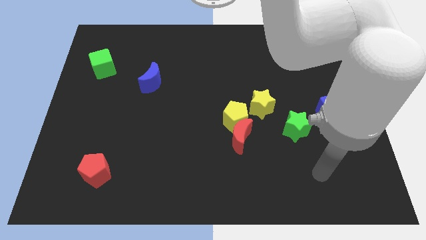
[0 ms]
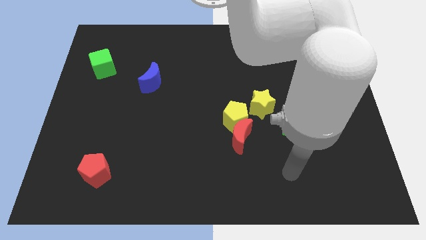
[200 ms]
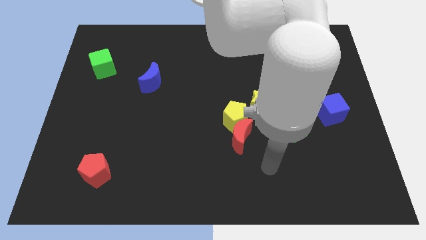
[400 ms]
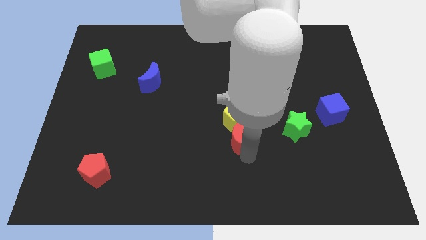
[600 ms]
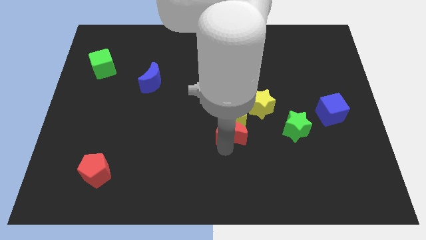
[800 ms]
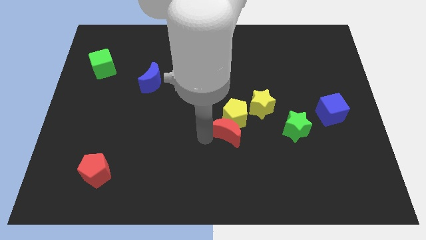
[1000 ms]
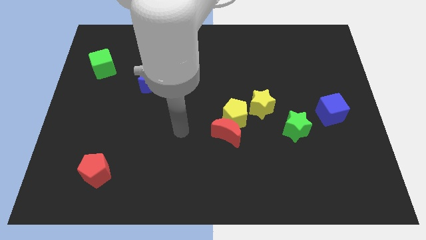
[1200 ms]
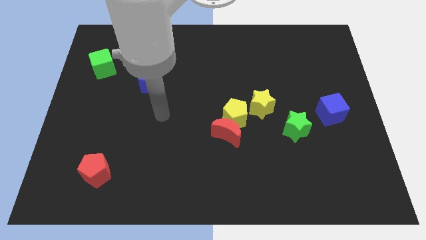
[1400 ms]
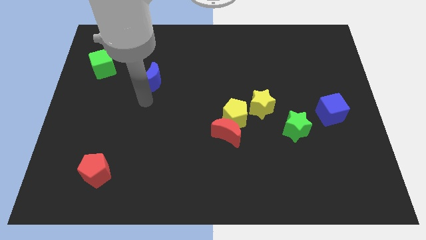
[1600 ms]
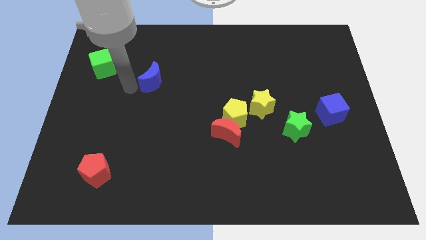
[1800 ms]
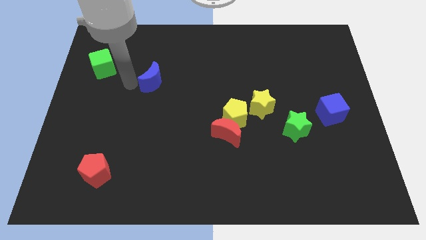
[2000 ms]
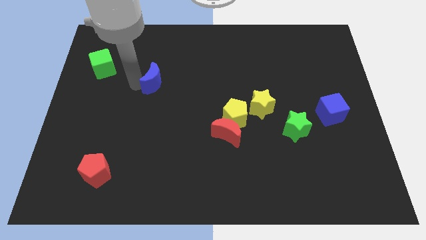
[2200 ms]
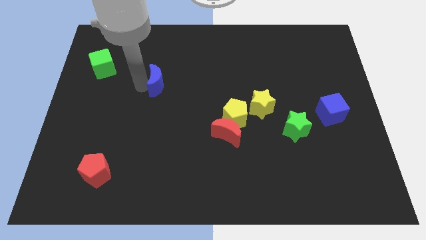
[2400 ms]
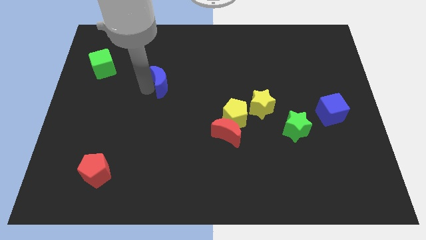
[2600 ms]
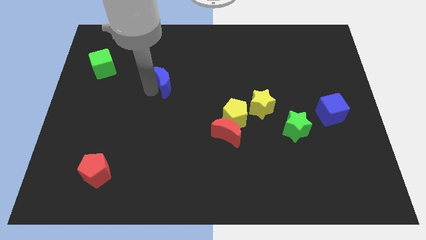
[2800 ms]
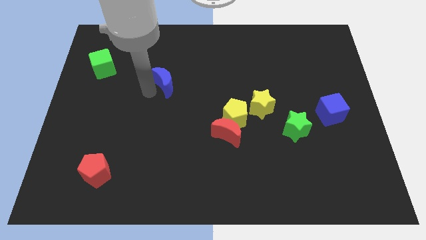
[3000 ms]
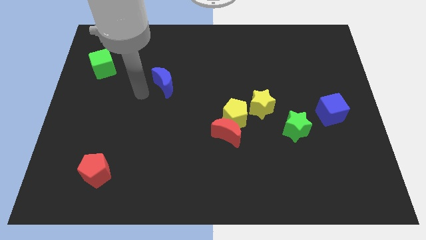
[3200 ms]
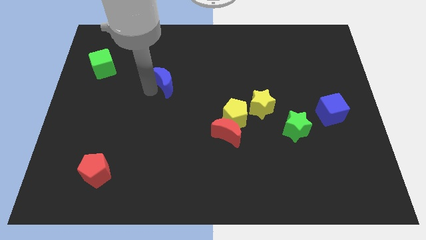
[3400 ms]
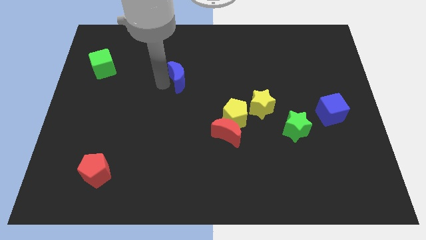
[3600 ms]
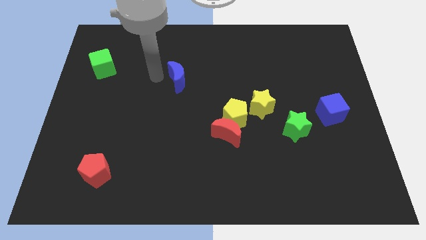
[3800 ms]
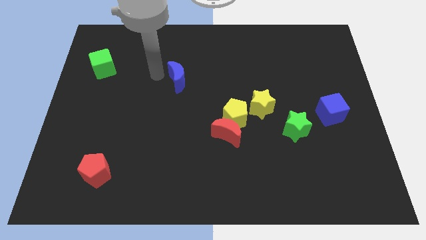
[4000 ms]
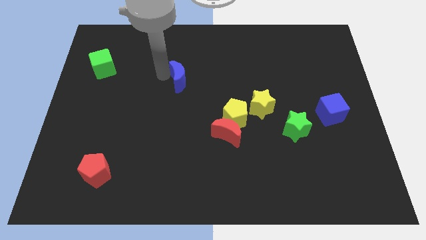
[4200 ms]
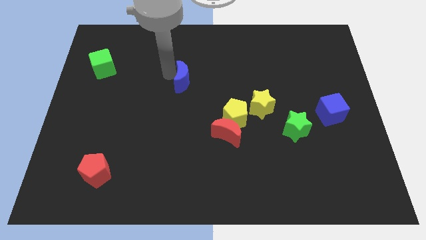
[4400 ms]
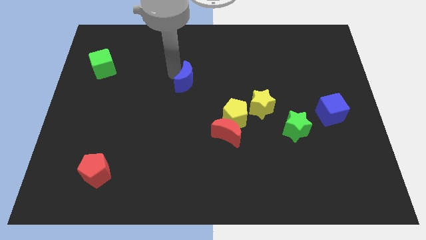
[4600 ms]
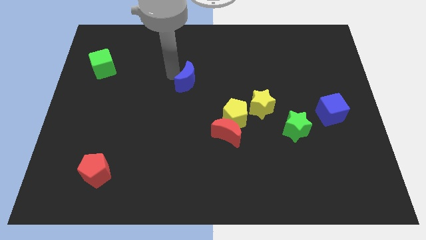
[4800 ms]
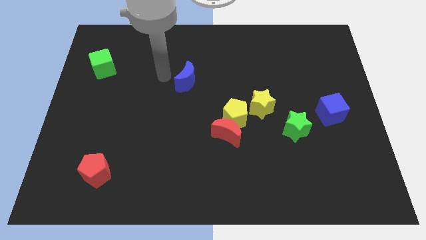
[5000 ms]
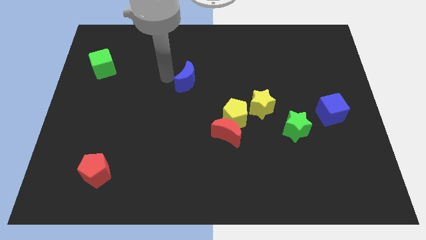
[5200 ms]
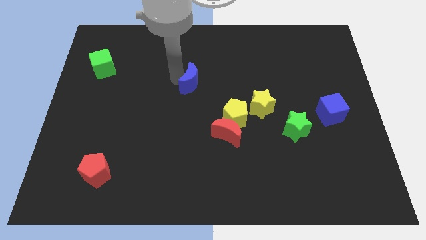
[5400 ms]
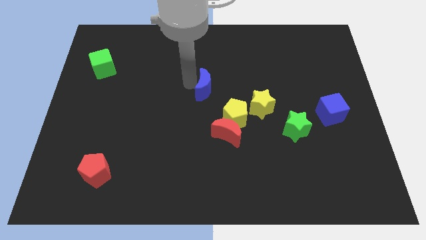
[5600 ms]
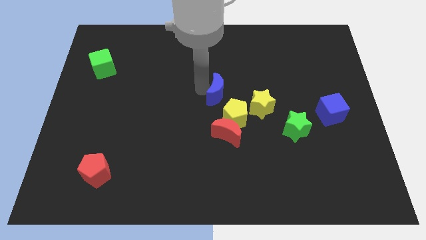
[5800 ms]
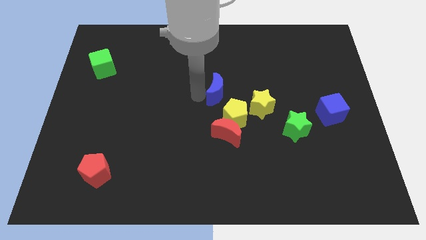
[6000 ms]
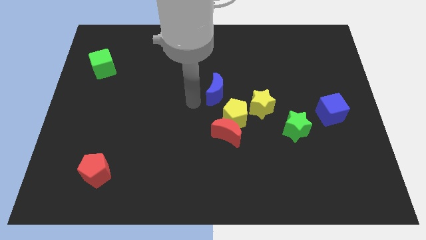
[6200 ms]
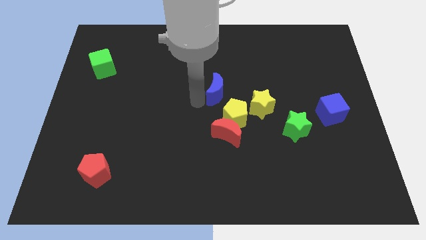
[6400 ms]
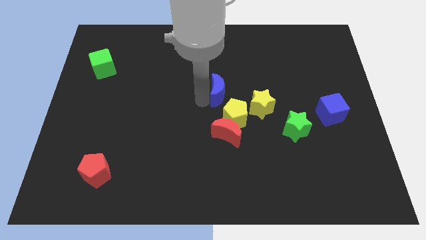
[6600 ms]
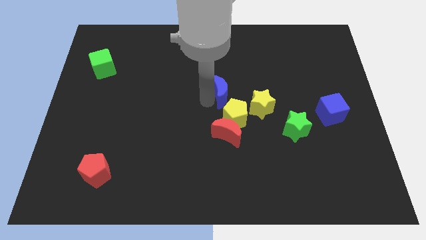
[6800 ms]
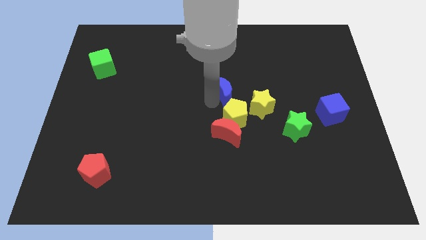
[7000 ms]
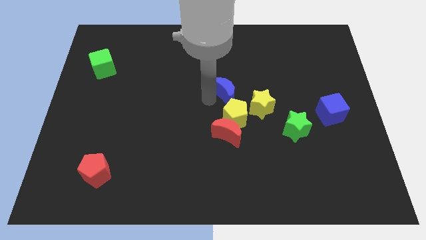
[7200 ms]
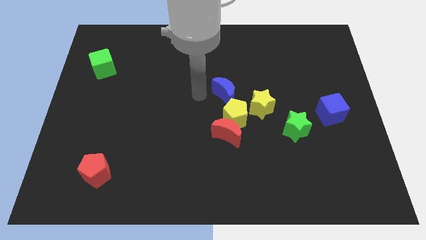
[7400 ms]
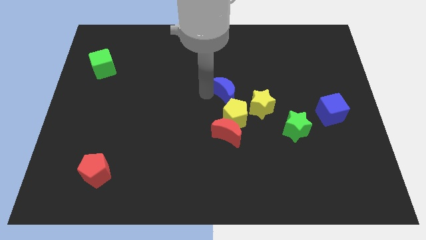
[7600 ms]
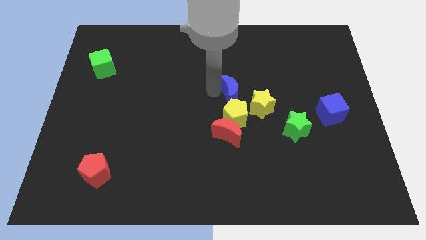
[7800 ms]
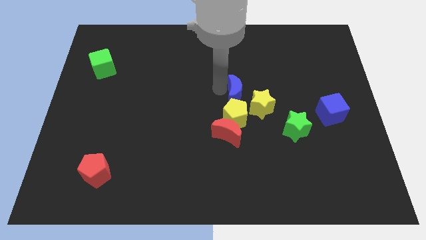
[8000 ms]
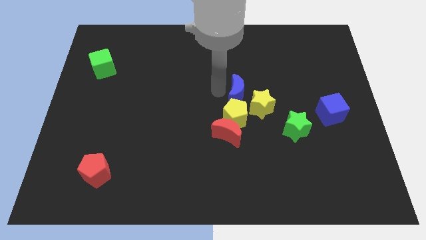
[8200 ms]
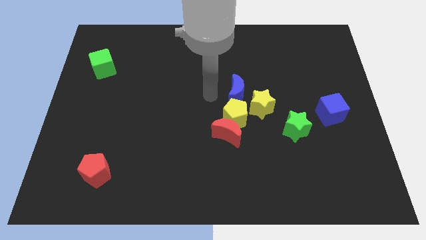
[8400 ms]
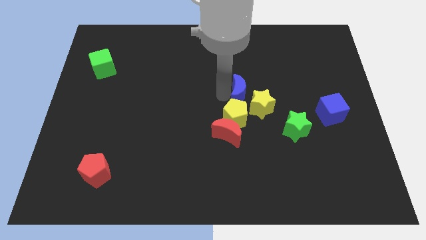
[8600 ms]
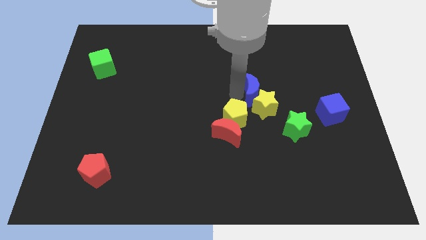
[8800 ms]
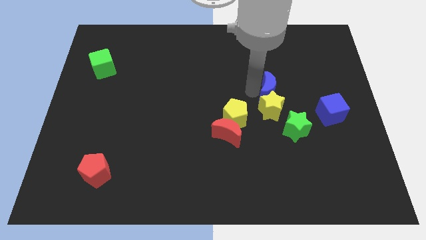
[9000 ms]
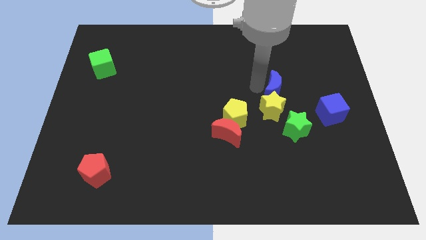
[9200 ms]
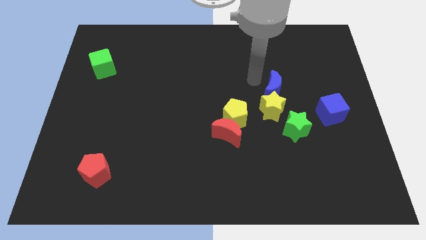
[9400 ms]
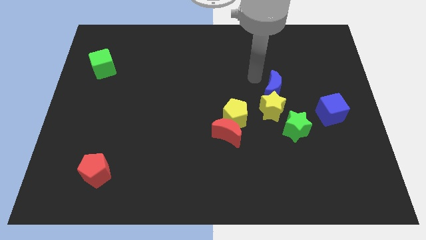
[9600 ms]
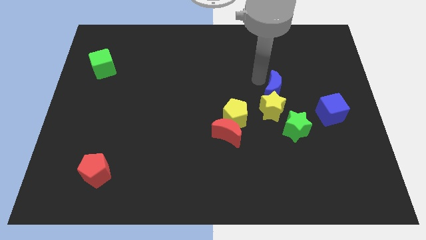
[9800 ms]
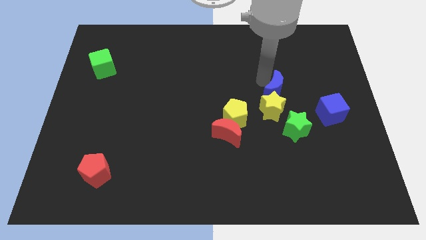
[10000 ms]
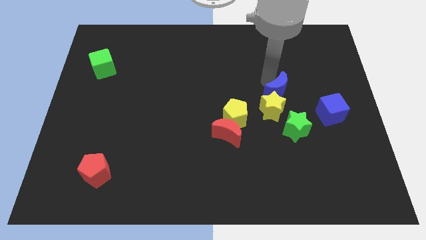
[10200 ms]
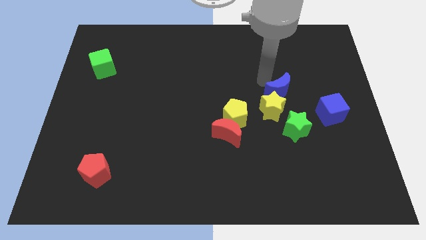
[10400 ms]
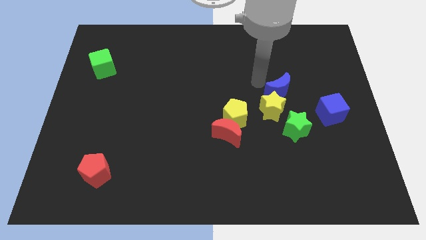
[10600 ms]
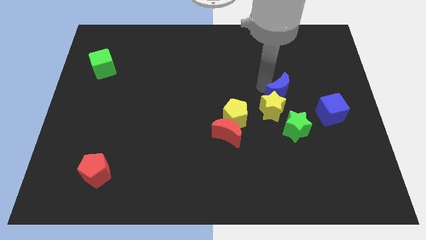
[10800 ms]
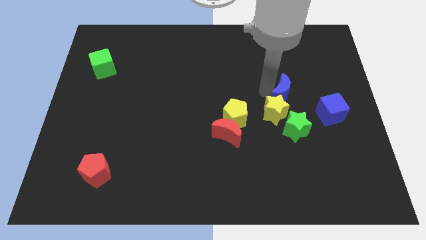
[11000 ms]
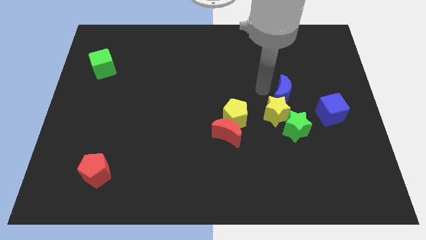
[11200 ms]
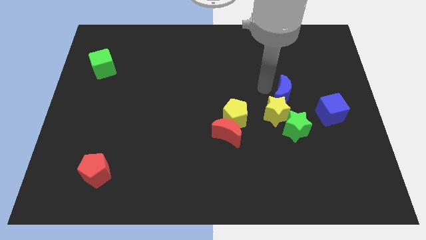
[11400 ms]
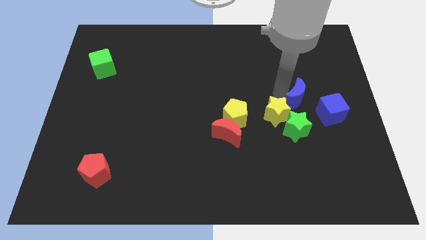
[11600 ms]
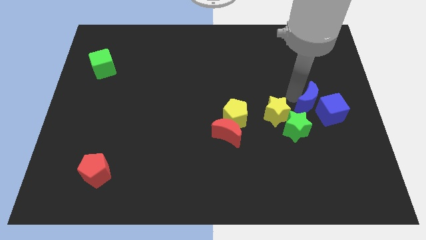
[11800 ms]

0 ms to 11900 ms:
push the blue moon next to the blue cube
